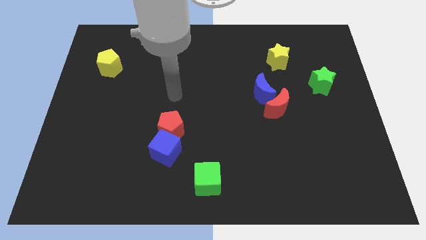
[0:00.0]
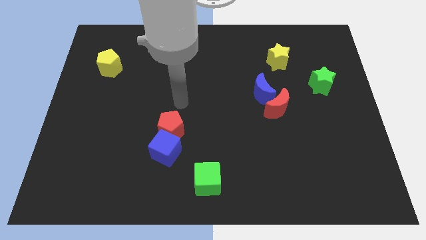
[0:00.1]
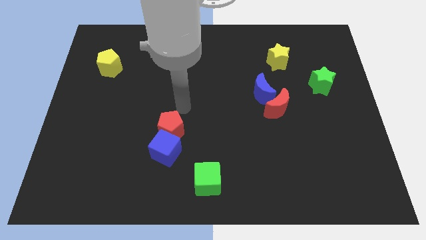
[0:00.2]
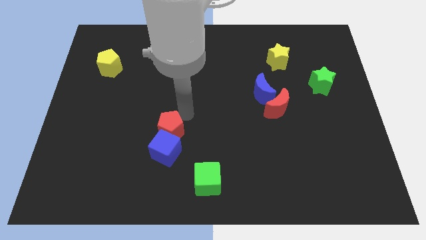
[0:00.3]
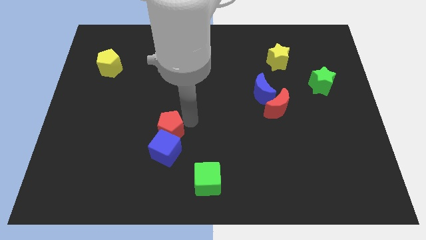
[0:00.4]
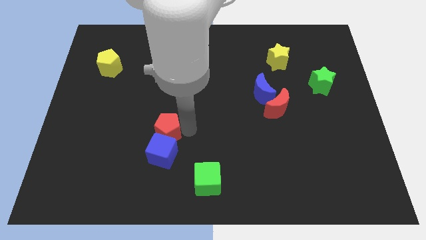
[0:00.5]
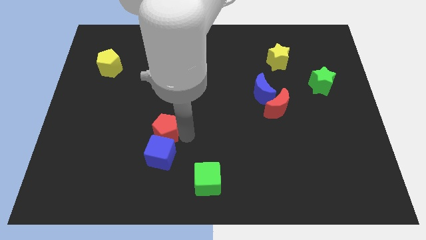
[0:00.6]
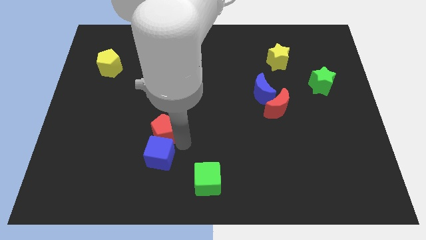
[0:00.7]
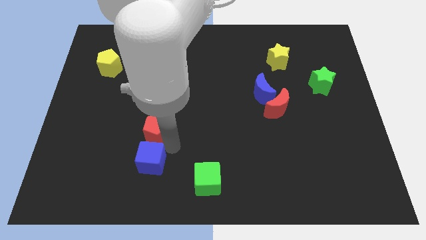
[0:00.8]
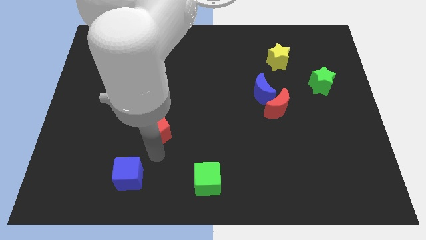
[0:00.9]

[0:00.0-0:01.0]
pull the red pentagon apart from the blue cube

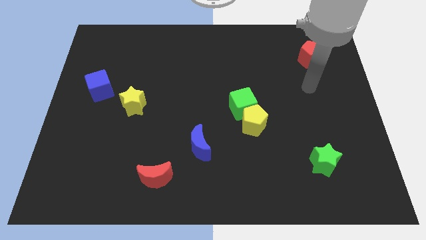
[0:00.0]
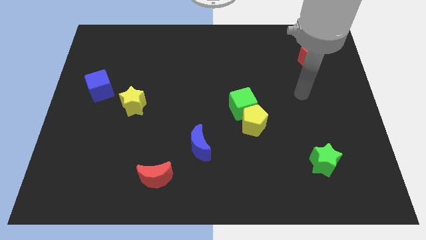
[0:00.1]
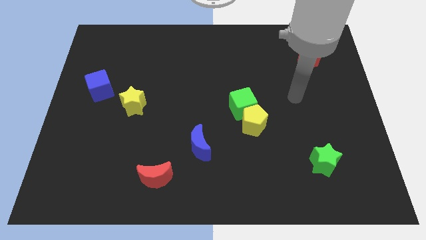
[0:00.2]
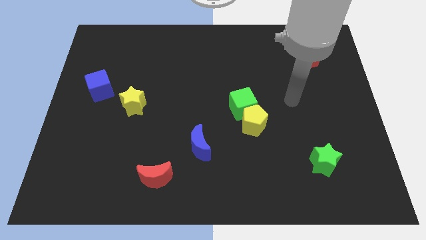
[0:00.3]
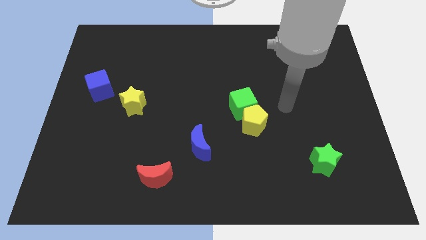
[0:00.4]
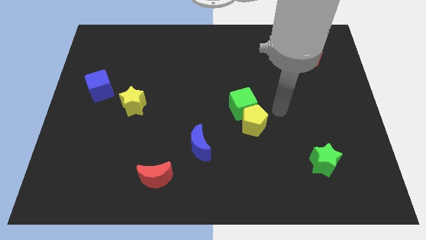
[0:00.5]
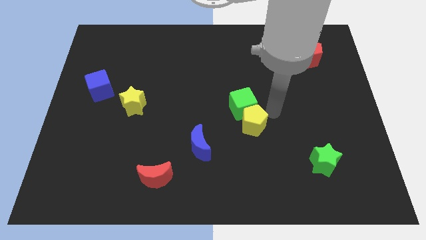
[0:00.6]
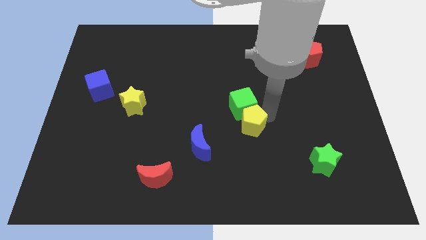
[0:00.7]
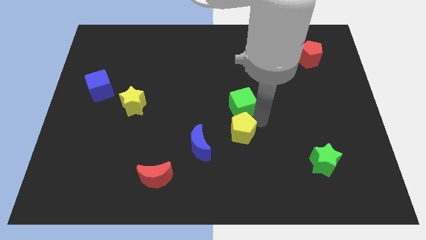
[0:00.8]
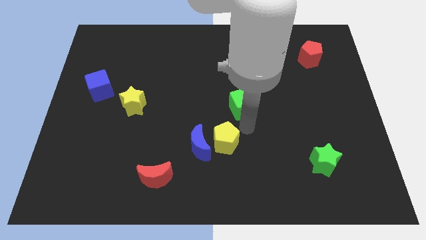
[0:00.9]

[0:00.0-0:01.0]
separate the green cube from the yellow pentagon

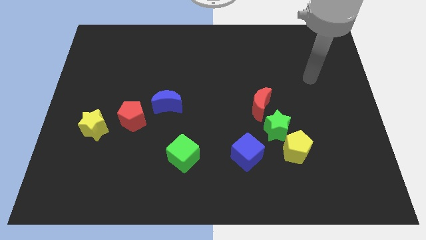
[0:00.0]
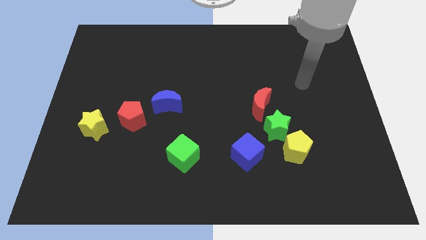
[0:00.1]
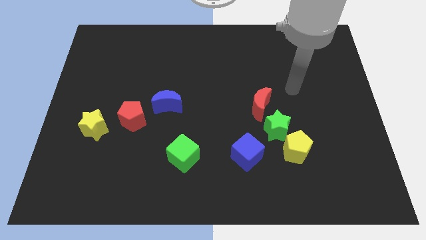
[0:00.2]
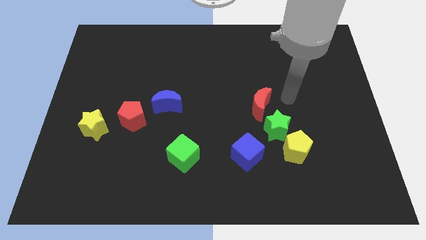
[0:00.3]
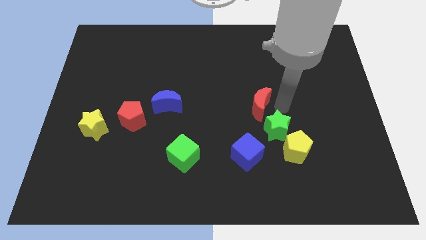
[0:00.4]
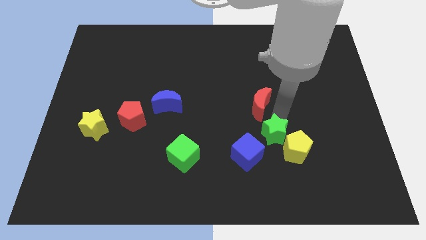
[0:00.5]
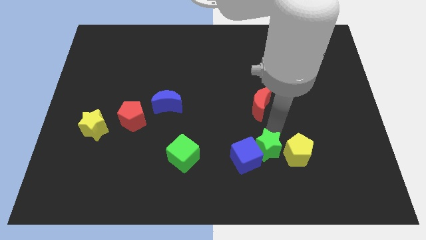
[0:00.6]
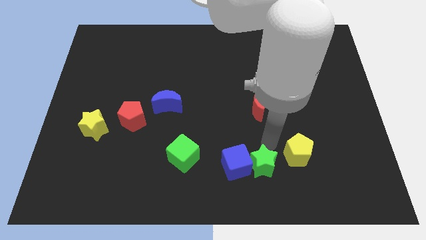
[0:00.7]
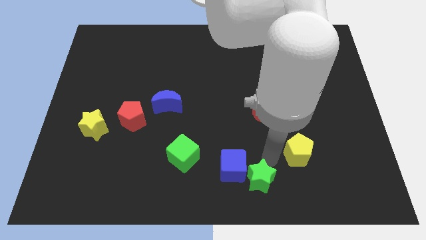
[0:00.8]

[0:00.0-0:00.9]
move the yellow pentagon away from the green star

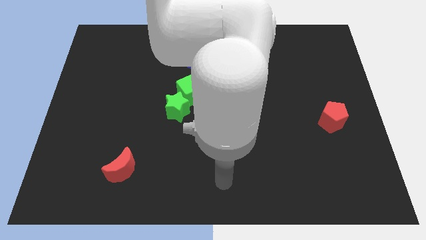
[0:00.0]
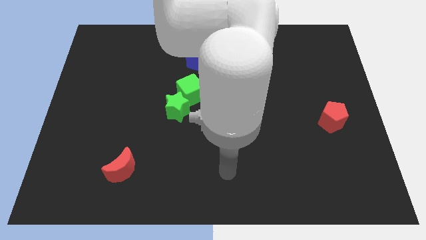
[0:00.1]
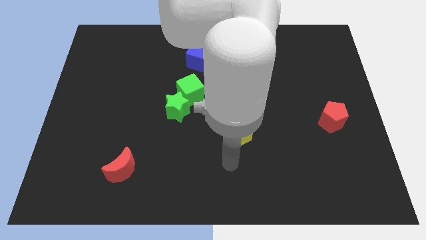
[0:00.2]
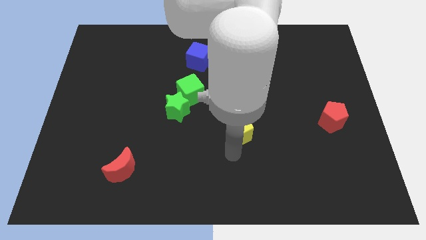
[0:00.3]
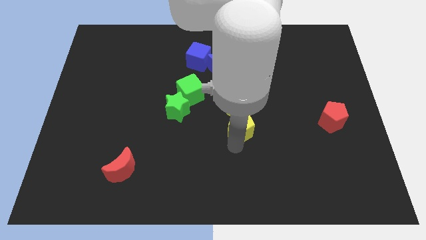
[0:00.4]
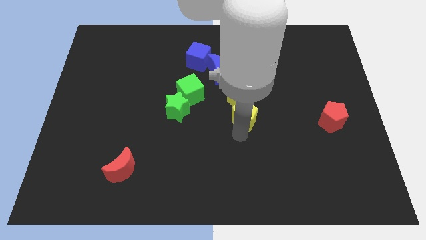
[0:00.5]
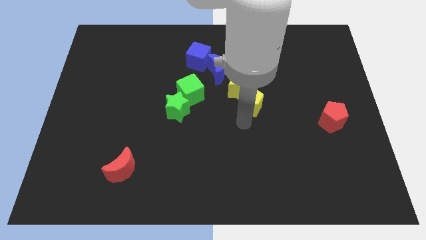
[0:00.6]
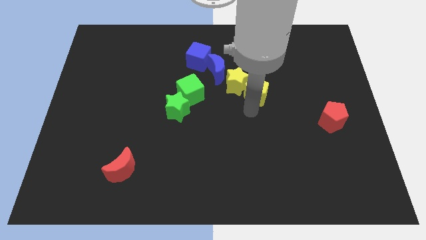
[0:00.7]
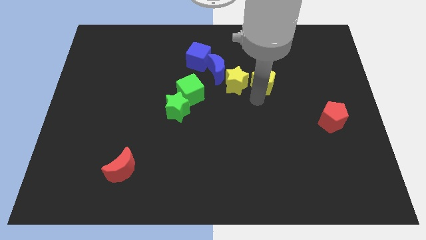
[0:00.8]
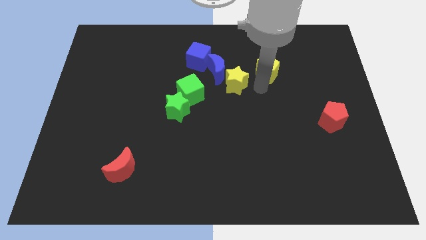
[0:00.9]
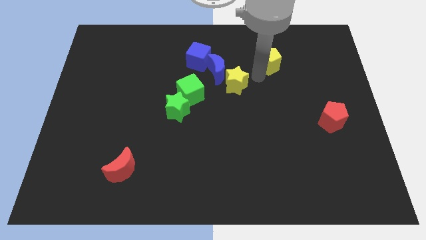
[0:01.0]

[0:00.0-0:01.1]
pull the yellow star apart from the yellow pentagon

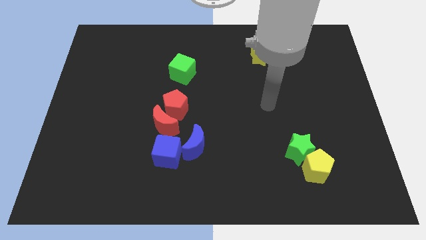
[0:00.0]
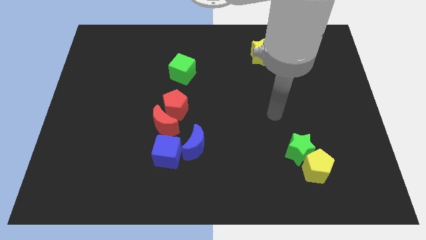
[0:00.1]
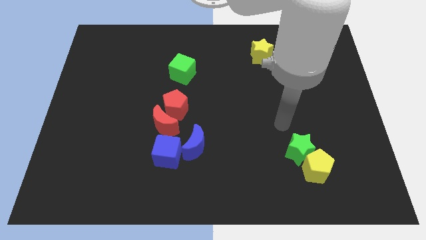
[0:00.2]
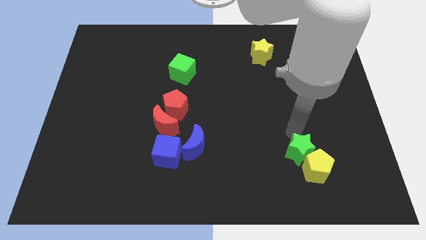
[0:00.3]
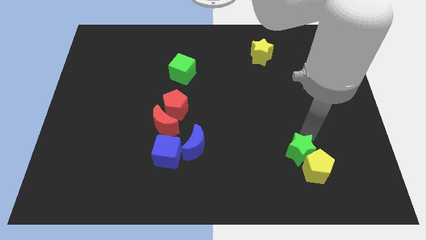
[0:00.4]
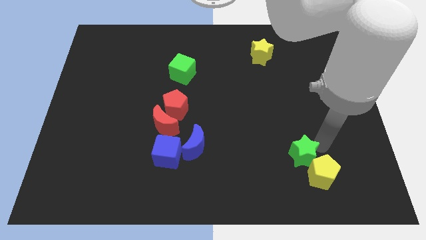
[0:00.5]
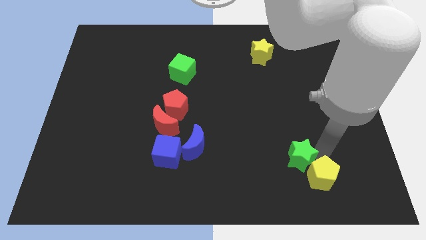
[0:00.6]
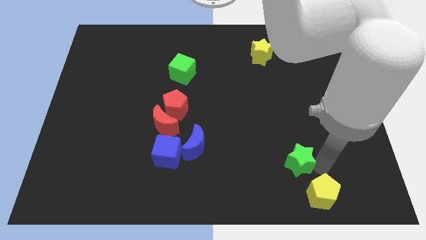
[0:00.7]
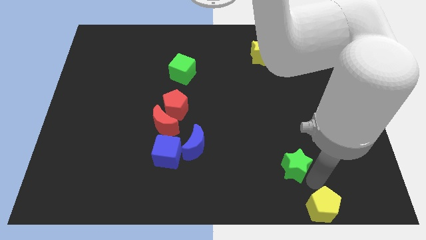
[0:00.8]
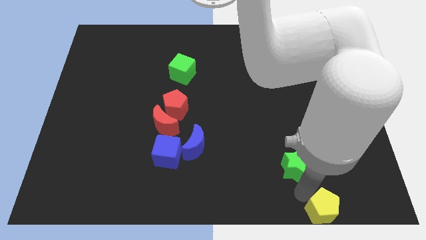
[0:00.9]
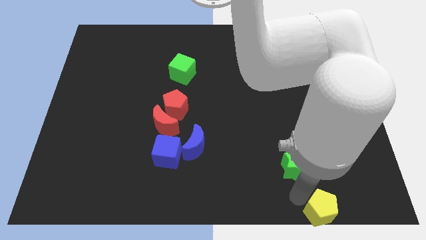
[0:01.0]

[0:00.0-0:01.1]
pull the green star apart from the yellow pentagon

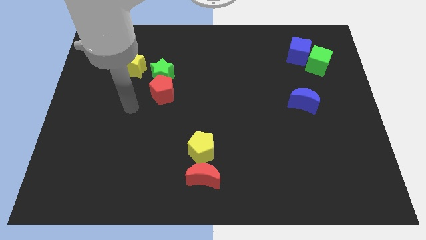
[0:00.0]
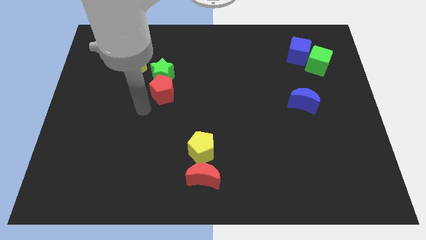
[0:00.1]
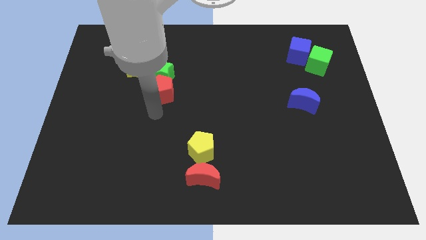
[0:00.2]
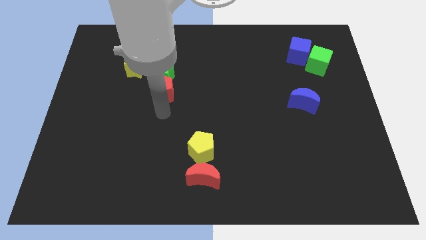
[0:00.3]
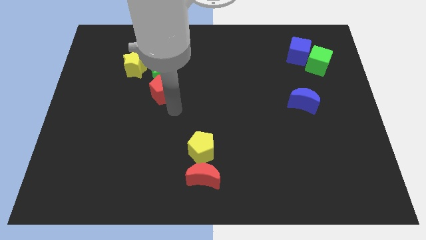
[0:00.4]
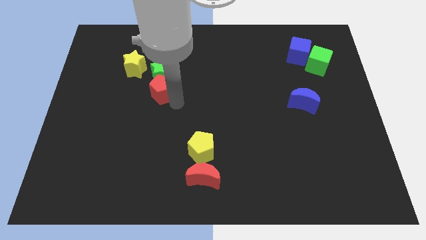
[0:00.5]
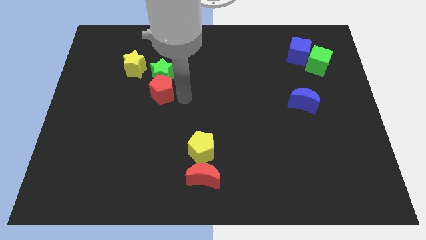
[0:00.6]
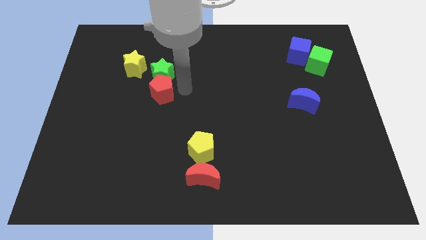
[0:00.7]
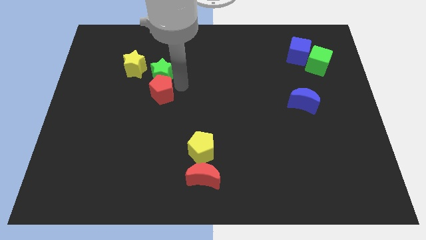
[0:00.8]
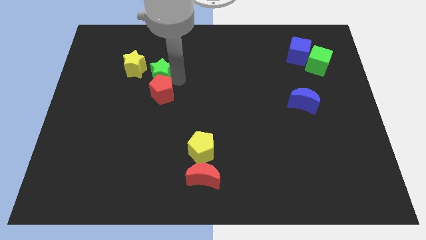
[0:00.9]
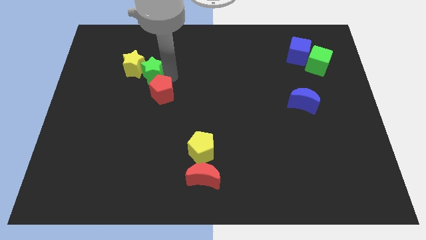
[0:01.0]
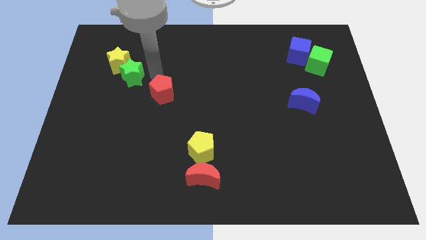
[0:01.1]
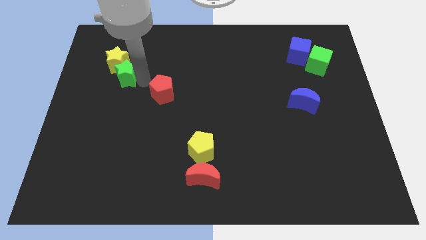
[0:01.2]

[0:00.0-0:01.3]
pull the red pentagon apart from the green star

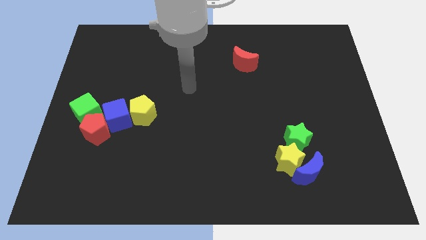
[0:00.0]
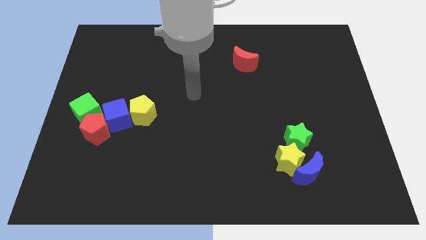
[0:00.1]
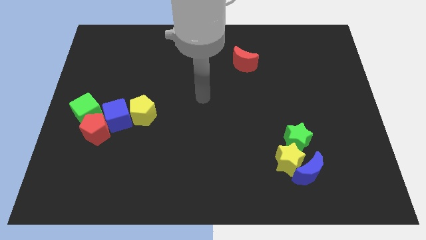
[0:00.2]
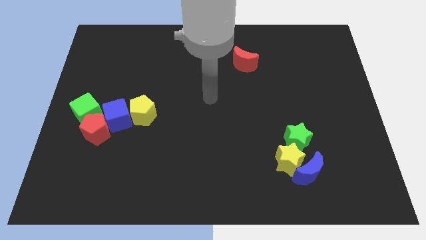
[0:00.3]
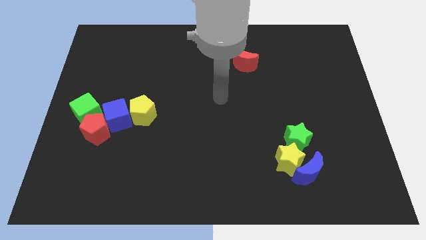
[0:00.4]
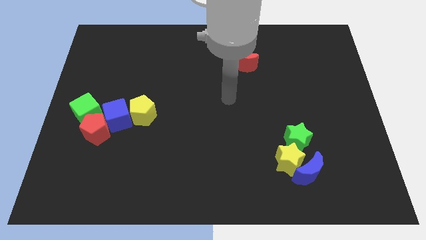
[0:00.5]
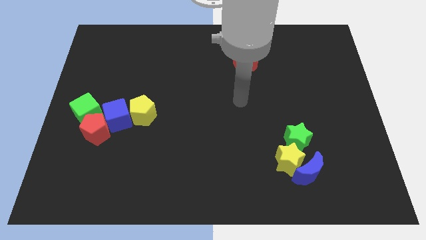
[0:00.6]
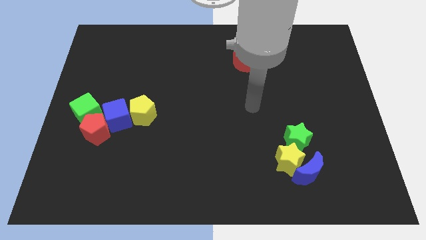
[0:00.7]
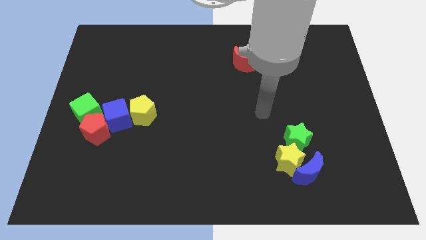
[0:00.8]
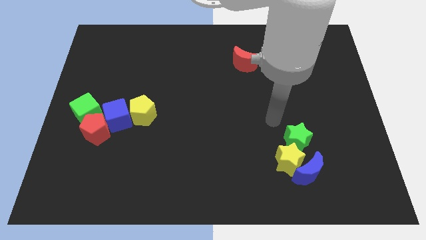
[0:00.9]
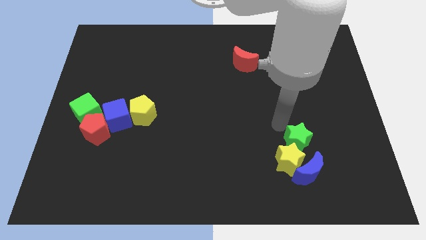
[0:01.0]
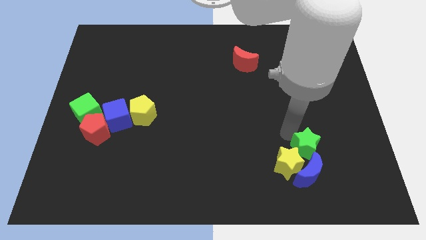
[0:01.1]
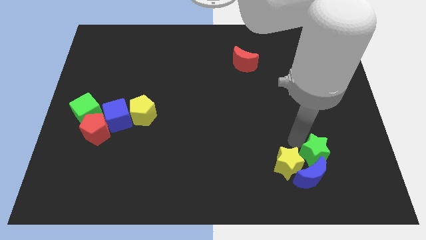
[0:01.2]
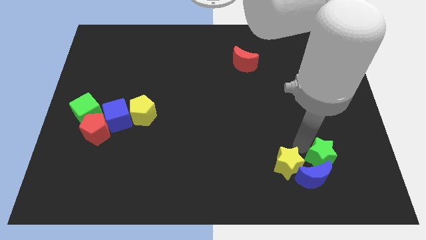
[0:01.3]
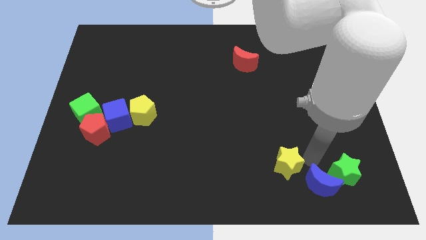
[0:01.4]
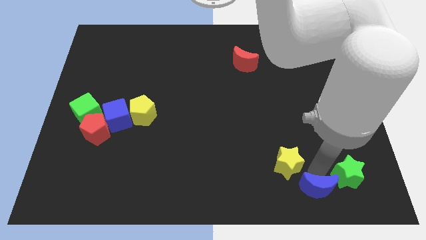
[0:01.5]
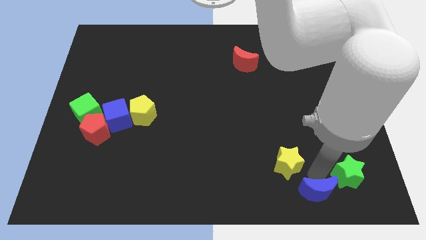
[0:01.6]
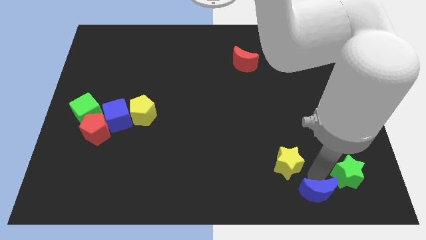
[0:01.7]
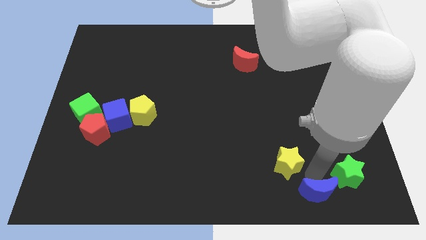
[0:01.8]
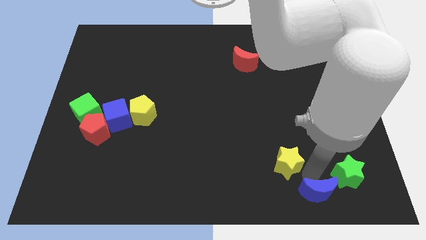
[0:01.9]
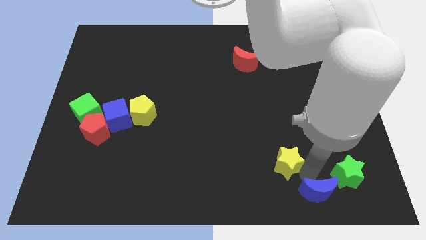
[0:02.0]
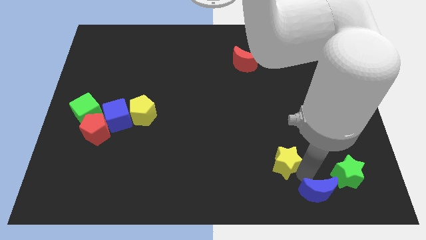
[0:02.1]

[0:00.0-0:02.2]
pull the yellow star apart from the blue moon and green star

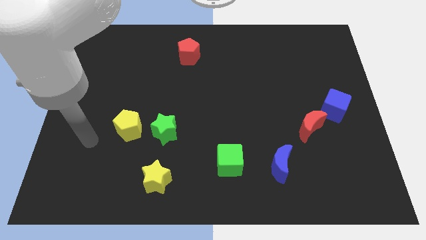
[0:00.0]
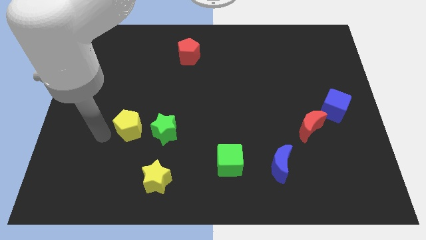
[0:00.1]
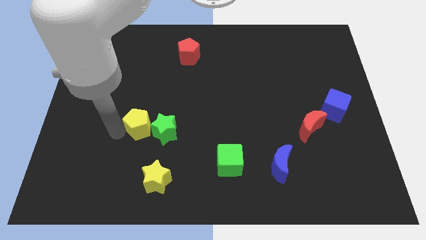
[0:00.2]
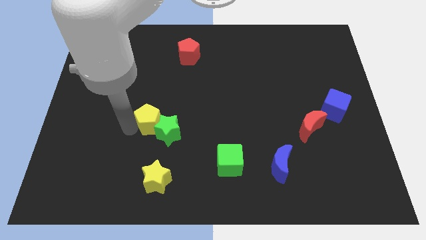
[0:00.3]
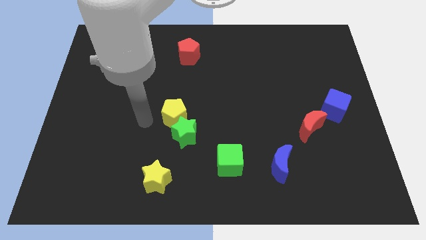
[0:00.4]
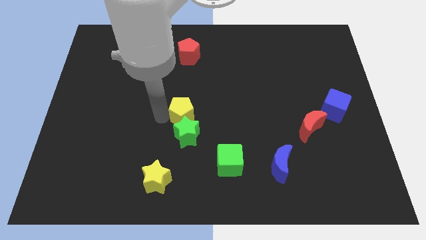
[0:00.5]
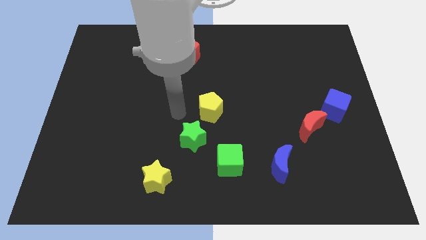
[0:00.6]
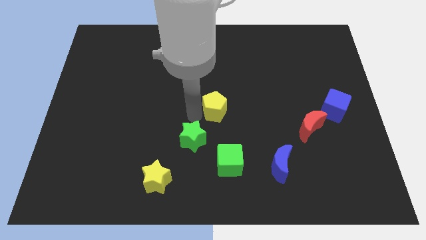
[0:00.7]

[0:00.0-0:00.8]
separate the green star from the yellow pentagon
